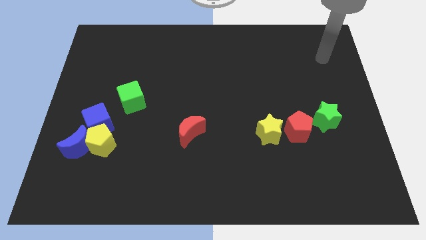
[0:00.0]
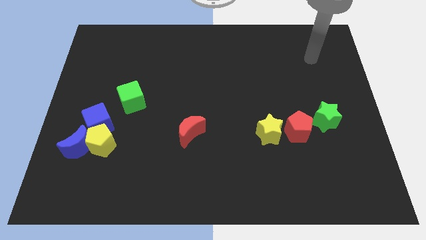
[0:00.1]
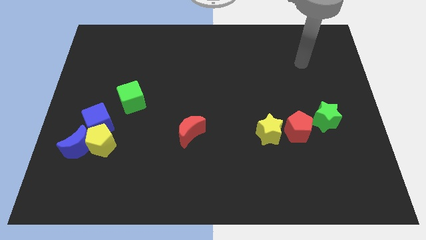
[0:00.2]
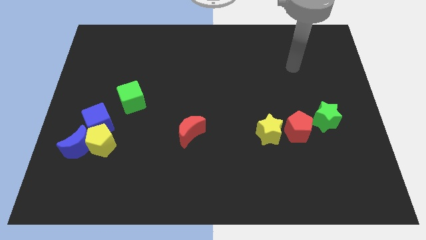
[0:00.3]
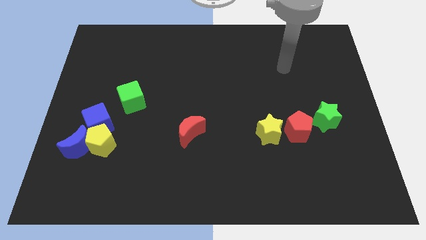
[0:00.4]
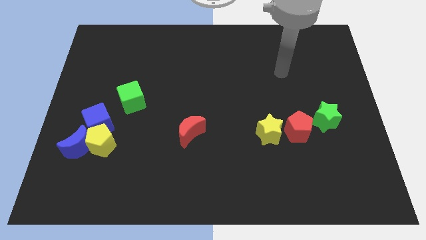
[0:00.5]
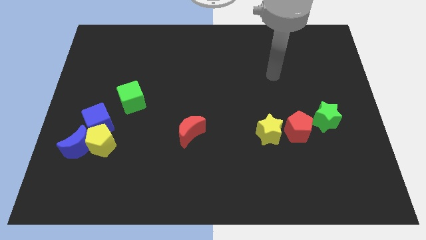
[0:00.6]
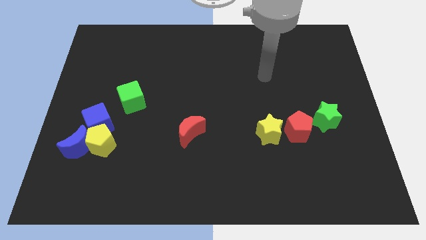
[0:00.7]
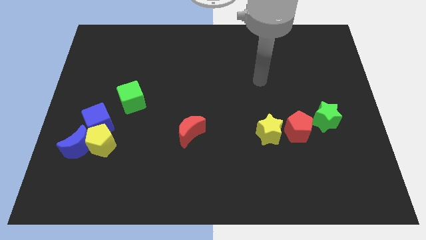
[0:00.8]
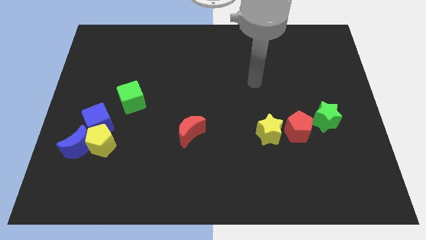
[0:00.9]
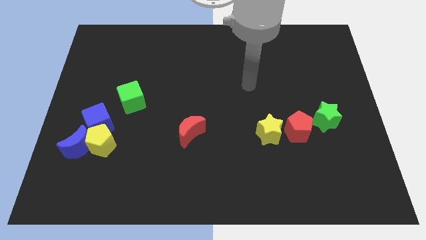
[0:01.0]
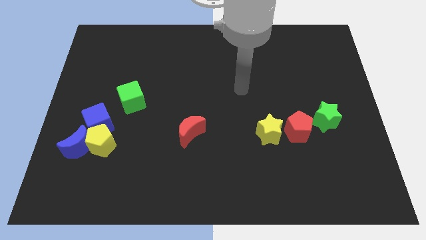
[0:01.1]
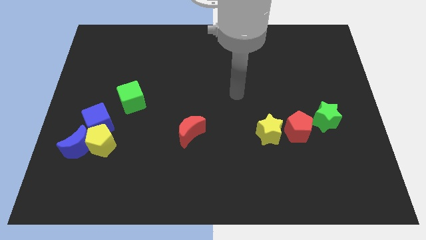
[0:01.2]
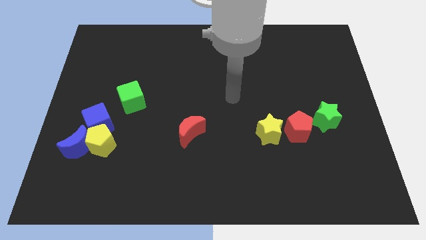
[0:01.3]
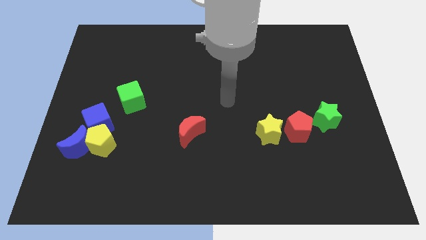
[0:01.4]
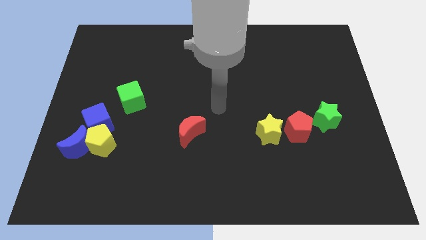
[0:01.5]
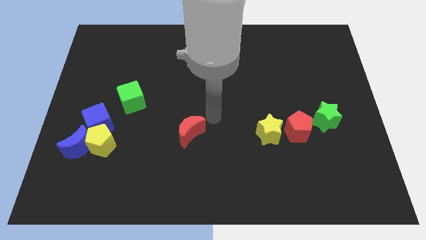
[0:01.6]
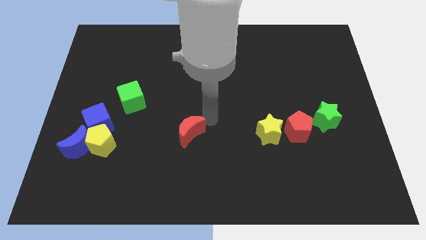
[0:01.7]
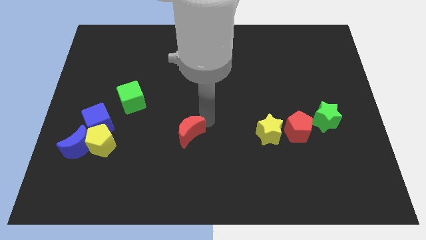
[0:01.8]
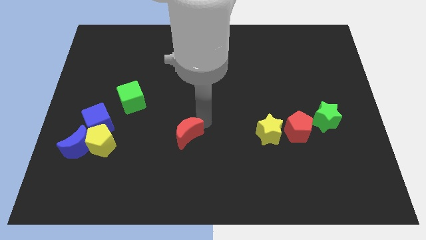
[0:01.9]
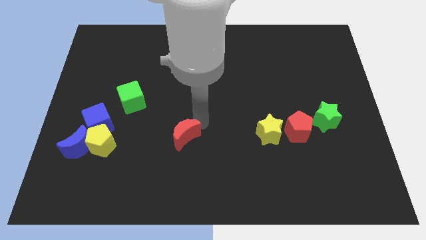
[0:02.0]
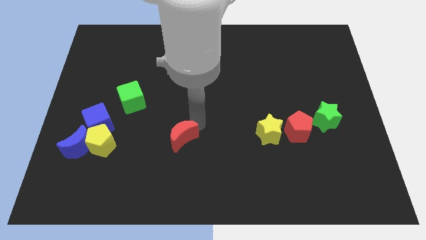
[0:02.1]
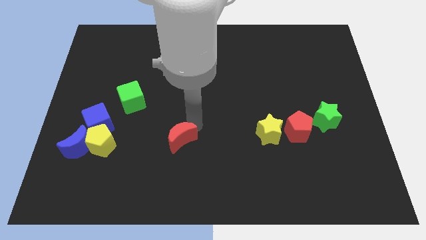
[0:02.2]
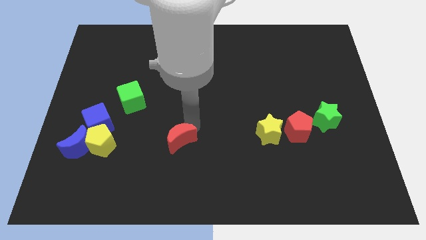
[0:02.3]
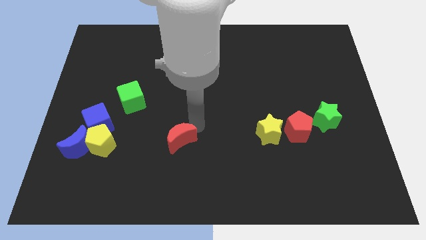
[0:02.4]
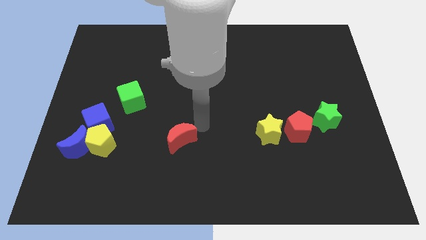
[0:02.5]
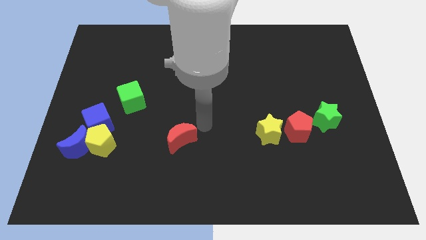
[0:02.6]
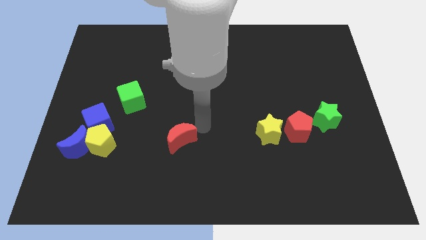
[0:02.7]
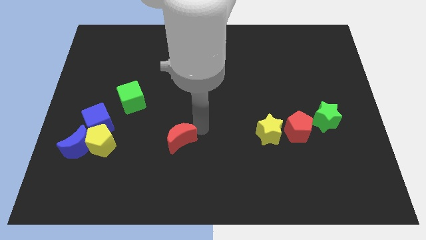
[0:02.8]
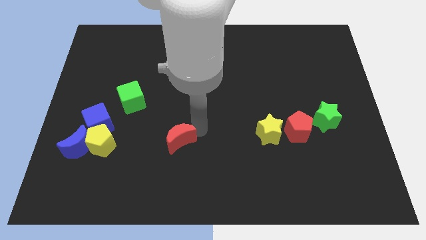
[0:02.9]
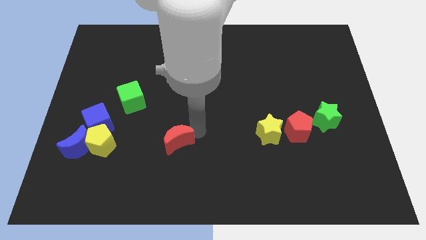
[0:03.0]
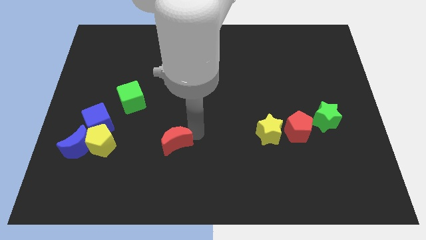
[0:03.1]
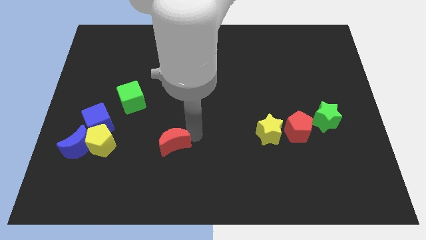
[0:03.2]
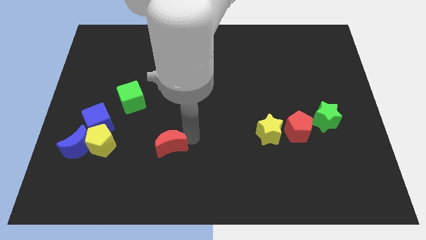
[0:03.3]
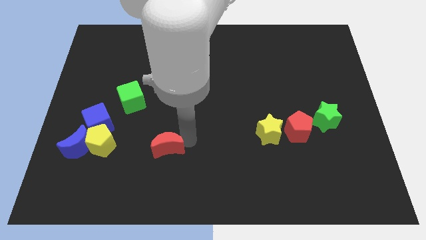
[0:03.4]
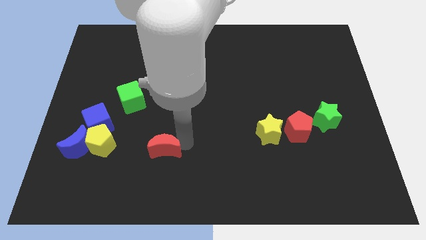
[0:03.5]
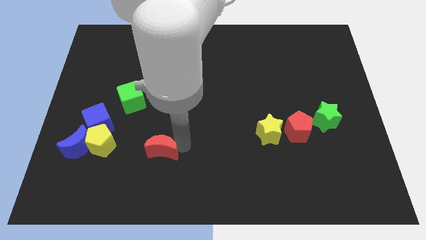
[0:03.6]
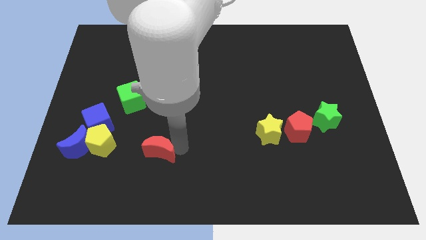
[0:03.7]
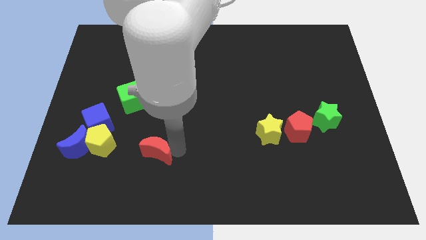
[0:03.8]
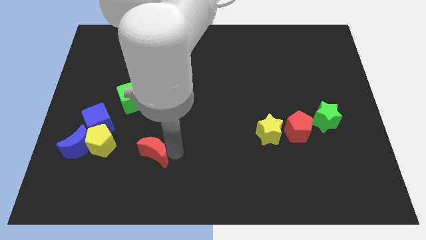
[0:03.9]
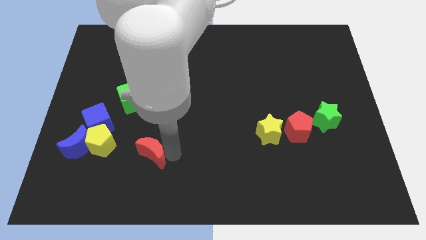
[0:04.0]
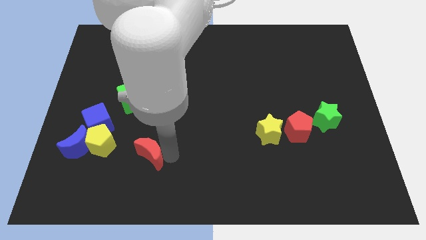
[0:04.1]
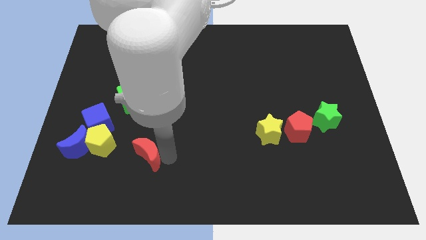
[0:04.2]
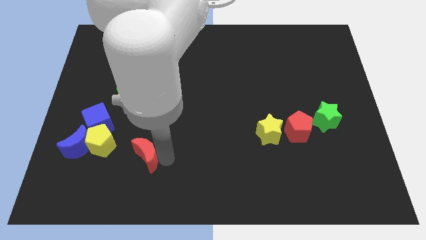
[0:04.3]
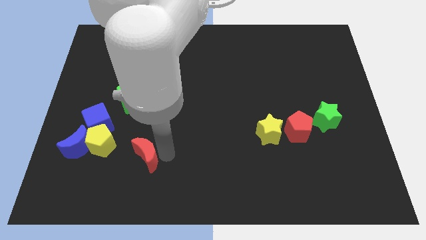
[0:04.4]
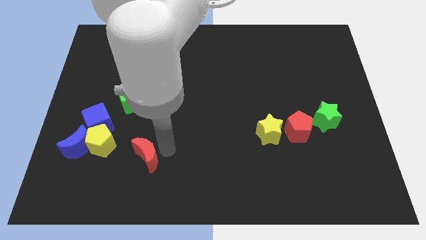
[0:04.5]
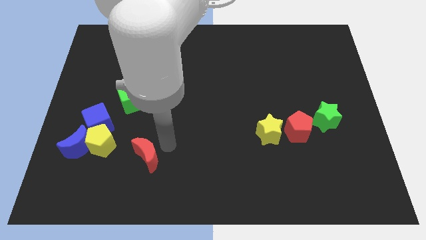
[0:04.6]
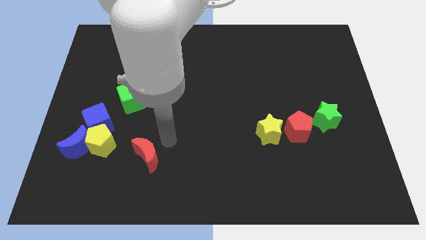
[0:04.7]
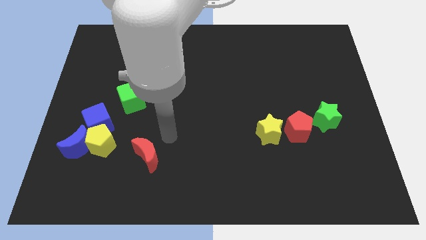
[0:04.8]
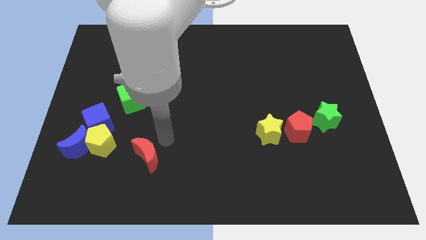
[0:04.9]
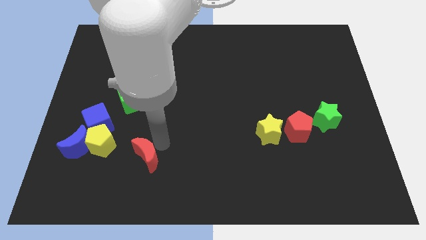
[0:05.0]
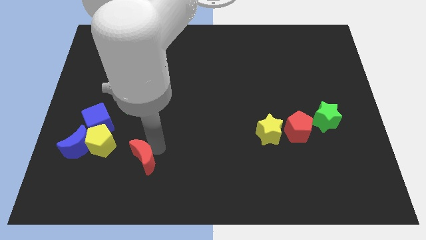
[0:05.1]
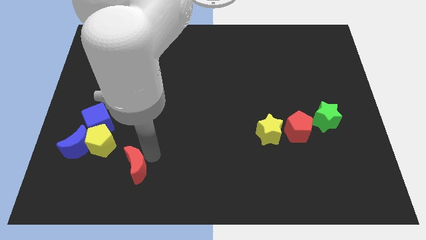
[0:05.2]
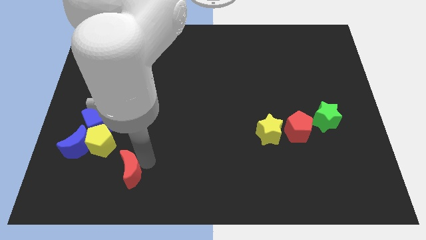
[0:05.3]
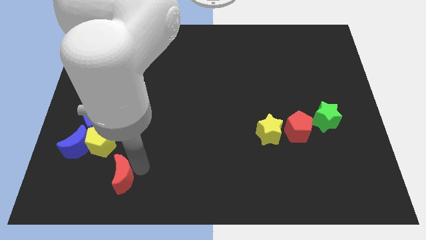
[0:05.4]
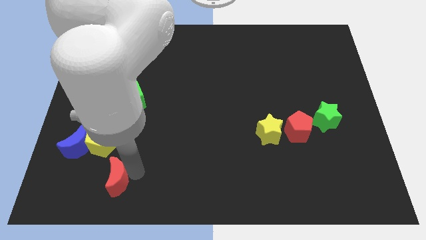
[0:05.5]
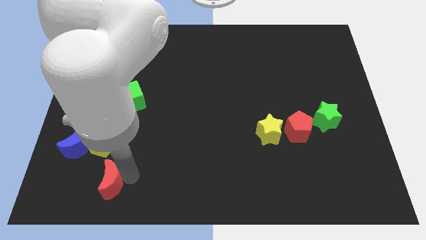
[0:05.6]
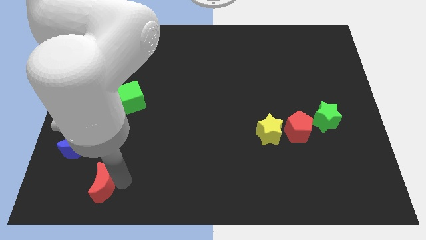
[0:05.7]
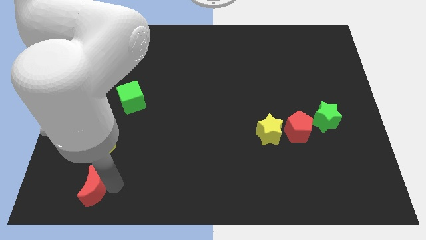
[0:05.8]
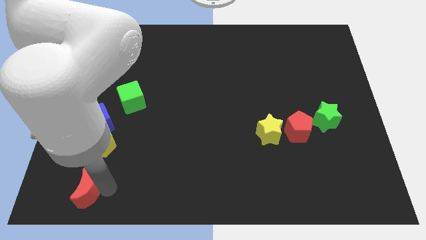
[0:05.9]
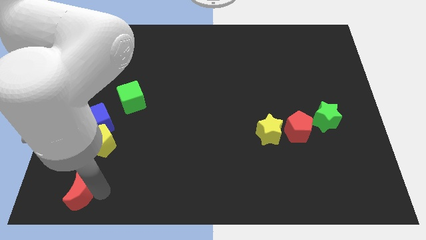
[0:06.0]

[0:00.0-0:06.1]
push the red moon to the lower left corner
